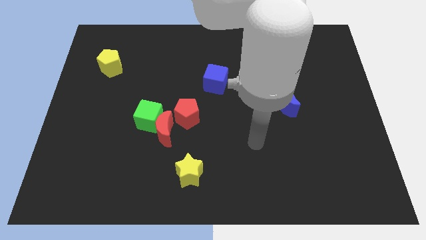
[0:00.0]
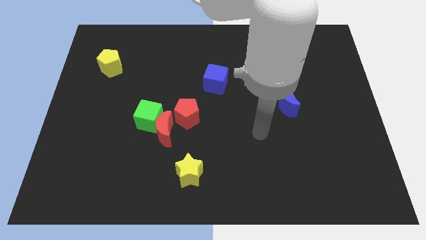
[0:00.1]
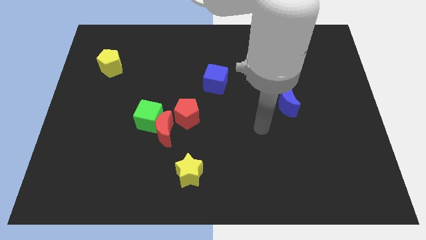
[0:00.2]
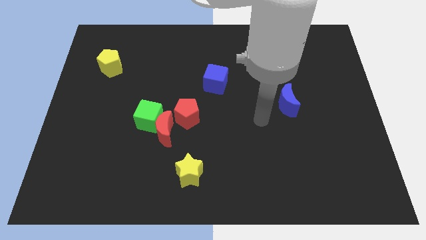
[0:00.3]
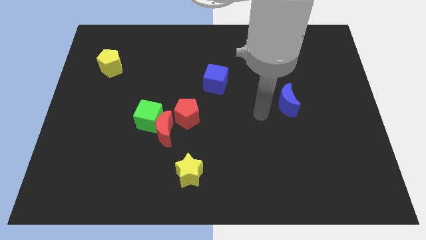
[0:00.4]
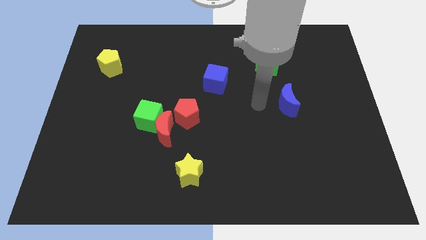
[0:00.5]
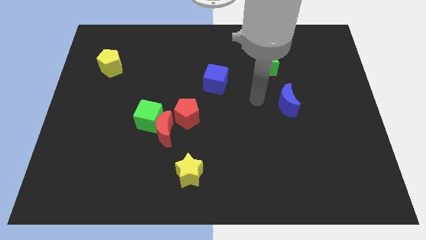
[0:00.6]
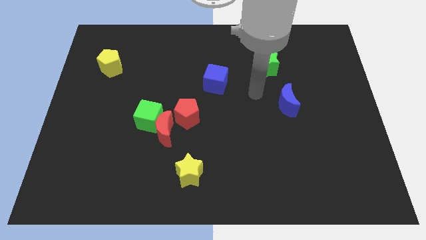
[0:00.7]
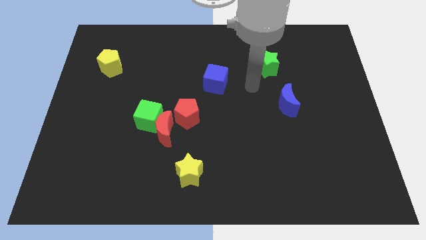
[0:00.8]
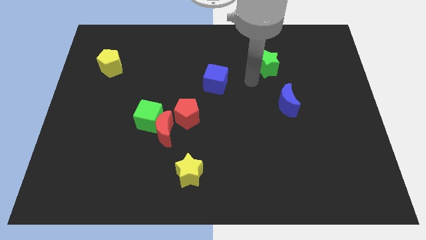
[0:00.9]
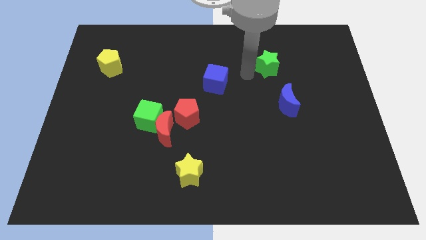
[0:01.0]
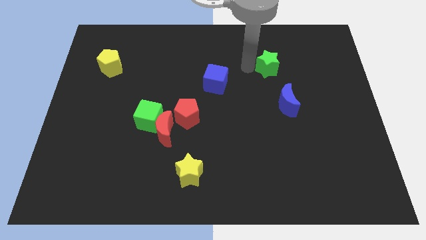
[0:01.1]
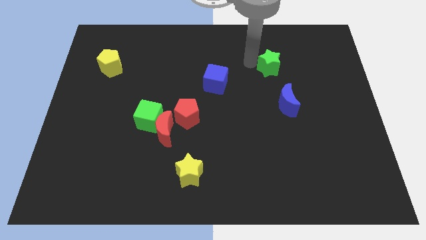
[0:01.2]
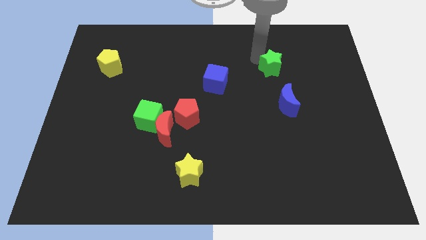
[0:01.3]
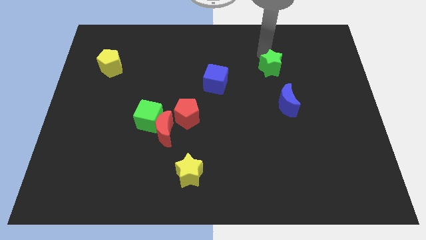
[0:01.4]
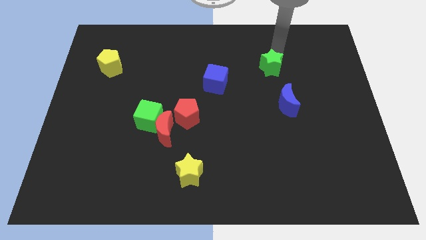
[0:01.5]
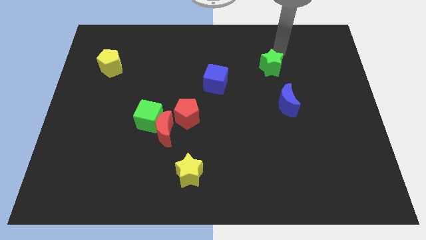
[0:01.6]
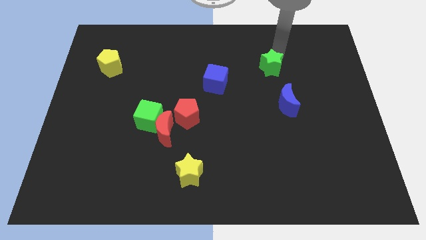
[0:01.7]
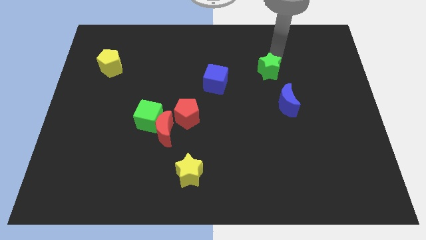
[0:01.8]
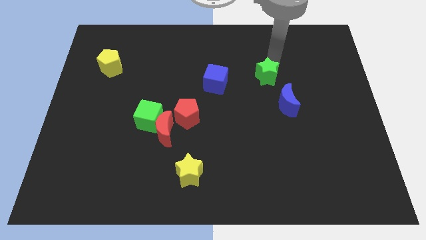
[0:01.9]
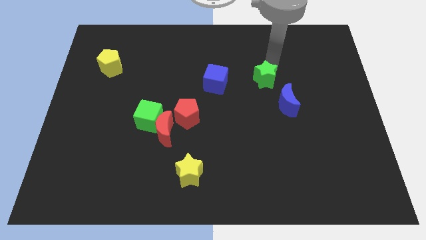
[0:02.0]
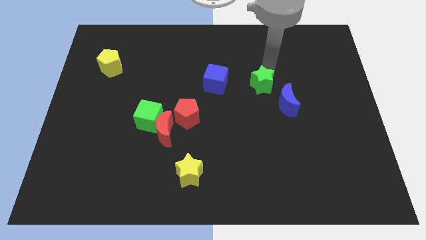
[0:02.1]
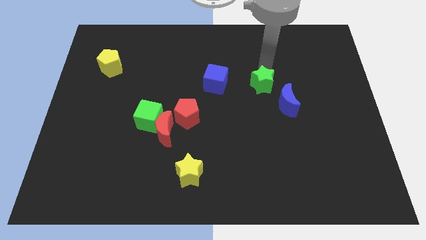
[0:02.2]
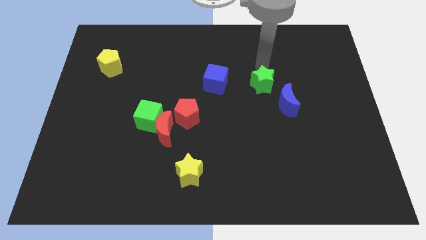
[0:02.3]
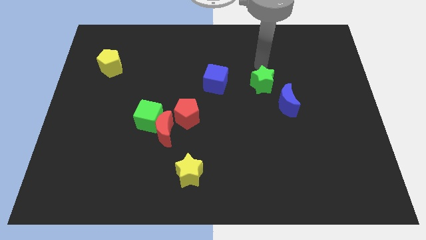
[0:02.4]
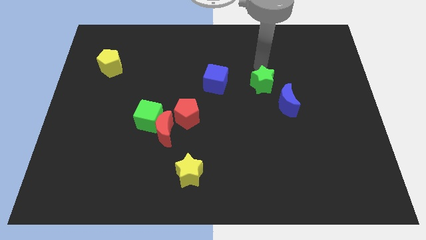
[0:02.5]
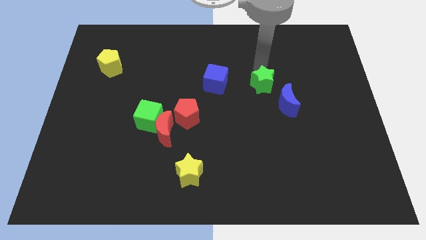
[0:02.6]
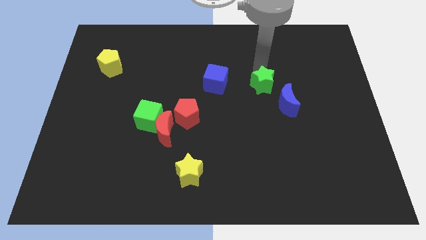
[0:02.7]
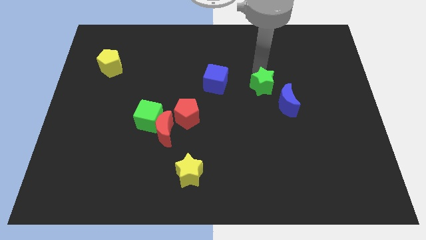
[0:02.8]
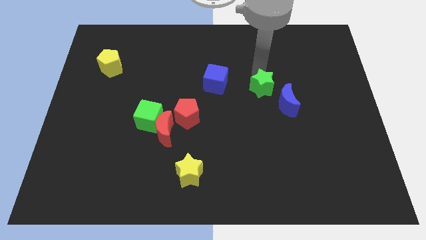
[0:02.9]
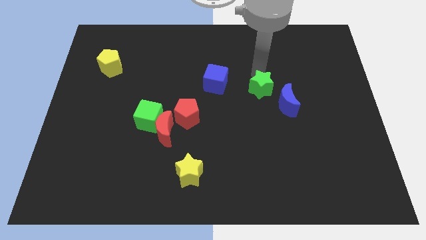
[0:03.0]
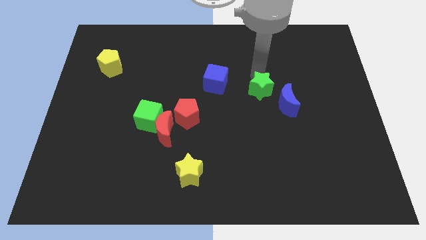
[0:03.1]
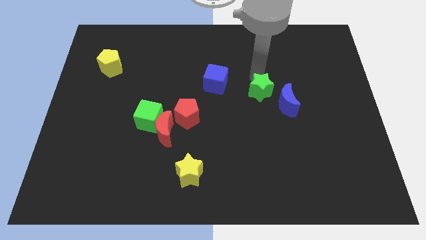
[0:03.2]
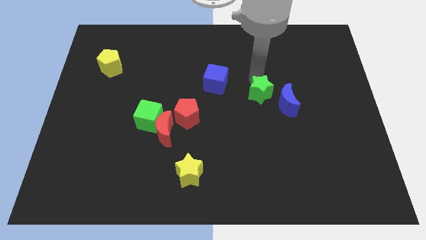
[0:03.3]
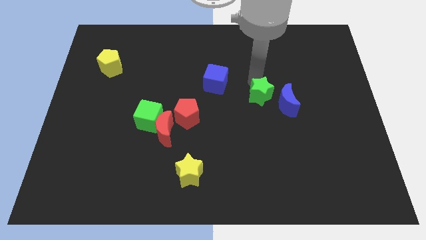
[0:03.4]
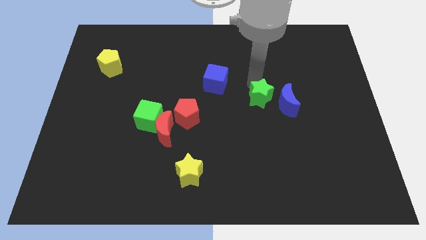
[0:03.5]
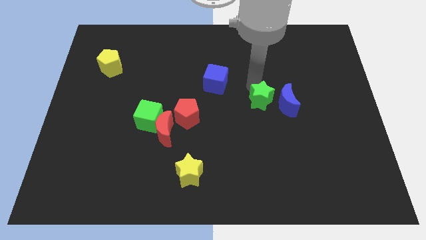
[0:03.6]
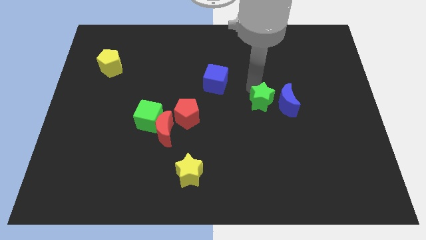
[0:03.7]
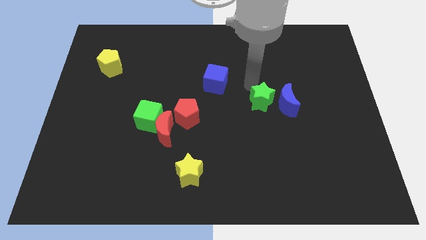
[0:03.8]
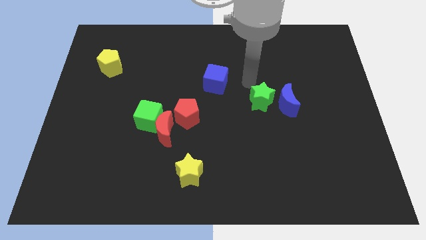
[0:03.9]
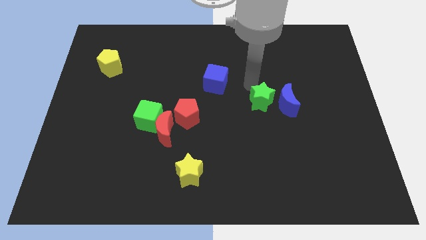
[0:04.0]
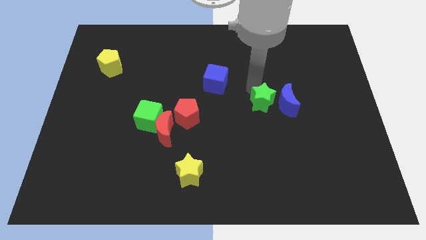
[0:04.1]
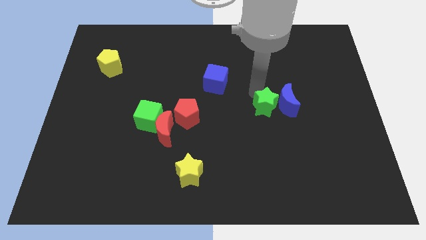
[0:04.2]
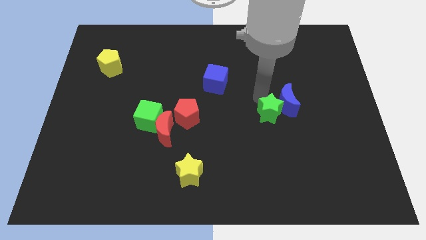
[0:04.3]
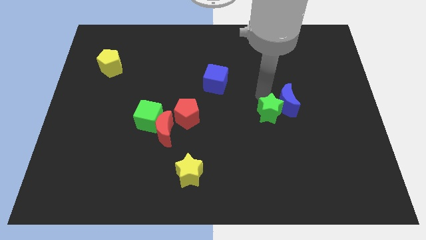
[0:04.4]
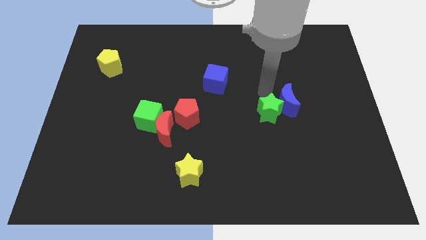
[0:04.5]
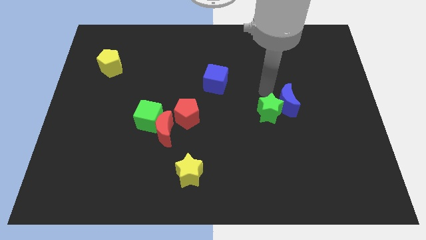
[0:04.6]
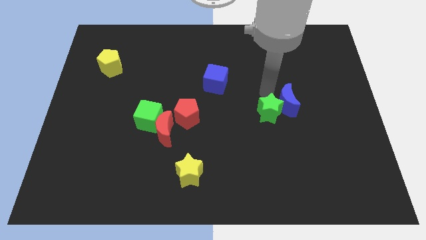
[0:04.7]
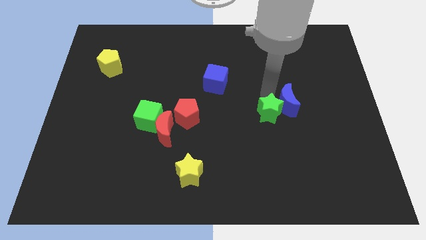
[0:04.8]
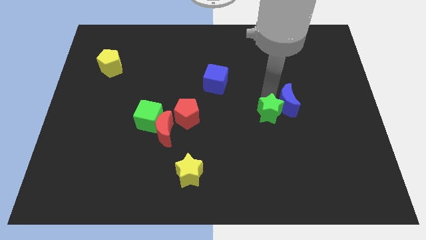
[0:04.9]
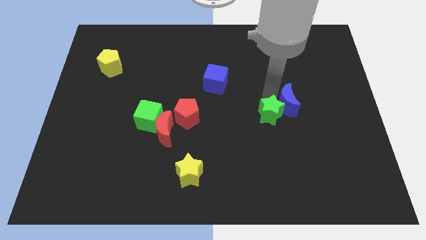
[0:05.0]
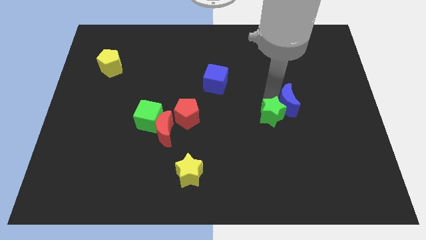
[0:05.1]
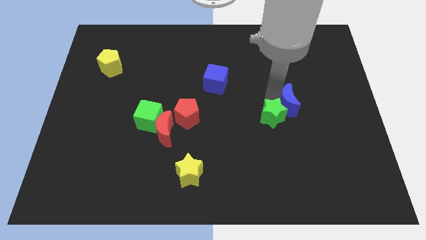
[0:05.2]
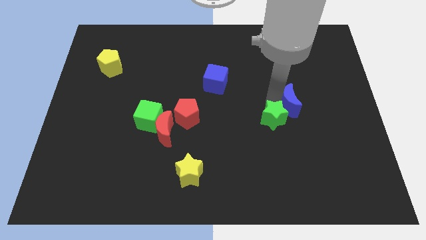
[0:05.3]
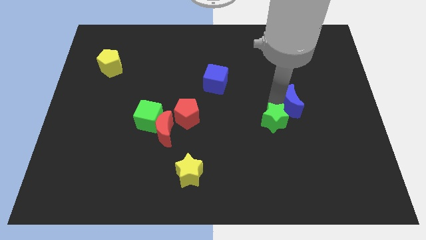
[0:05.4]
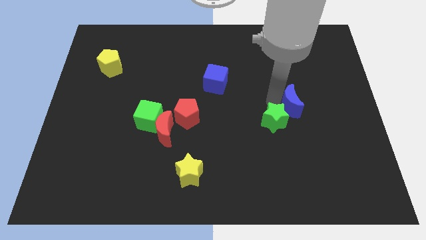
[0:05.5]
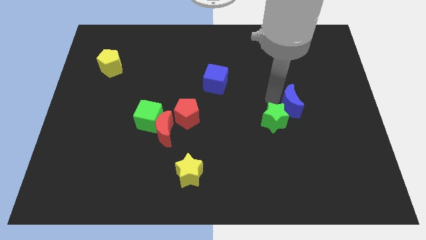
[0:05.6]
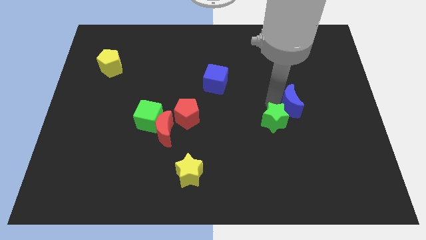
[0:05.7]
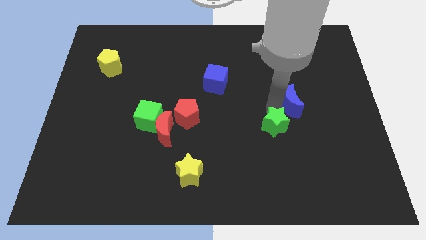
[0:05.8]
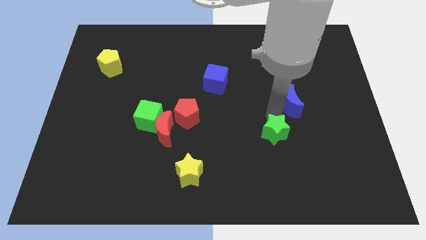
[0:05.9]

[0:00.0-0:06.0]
push the green star downwards

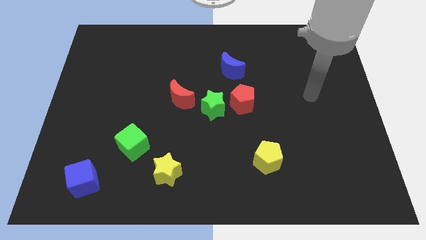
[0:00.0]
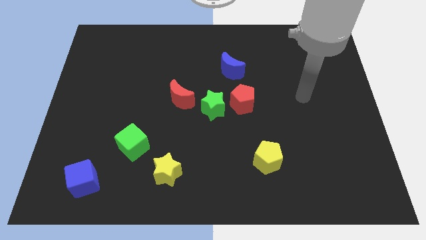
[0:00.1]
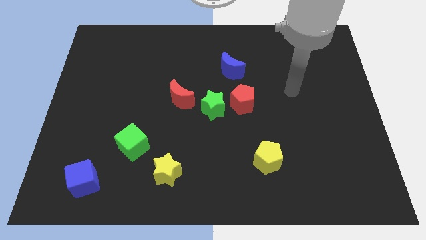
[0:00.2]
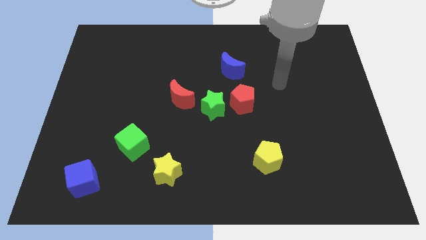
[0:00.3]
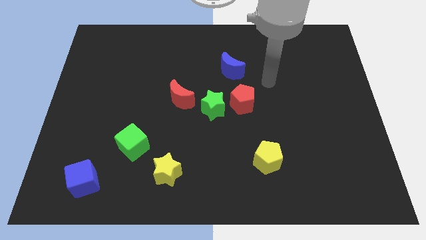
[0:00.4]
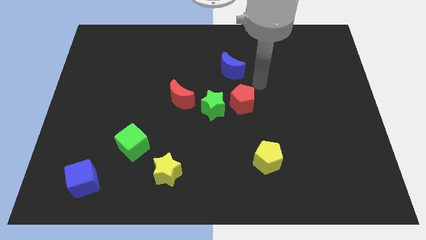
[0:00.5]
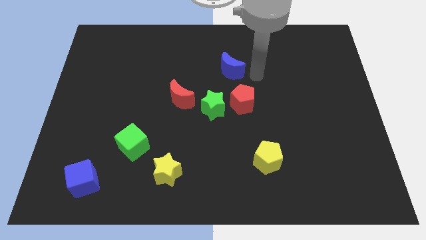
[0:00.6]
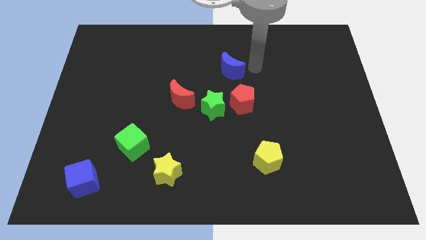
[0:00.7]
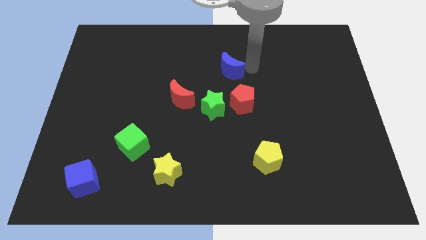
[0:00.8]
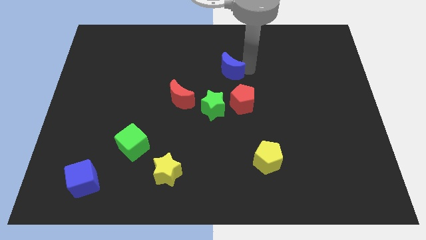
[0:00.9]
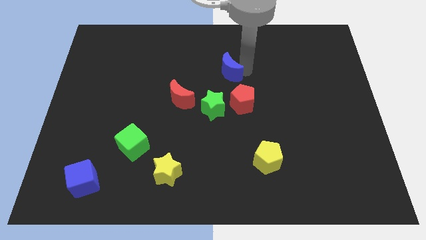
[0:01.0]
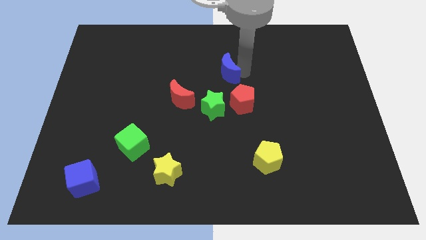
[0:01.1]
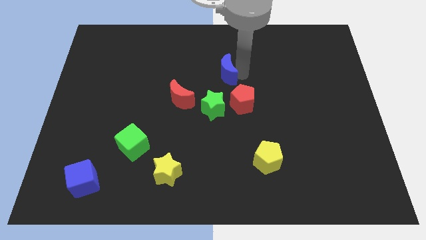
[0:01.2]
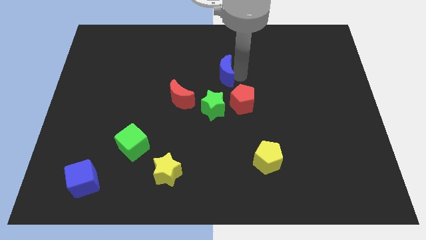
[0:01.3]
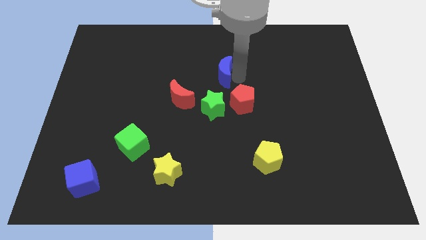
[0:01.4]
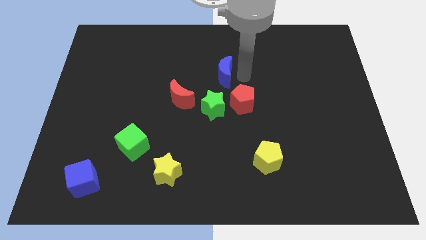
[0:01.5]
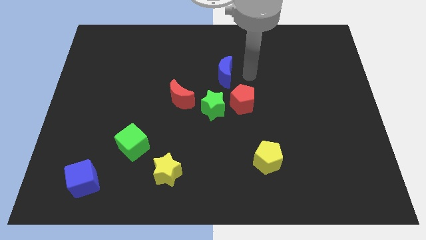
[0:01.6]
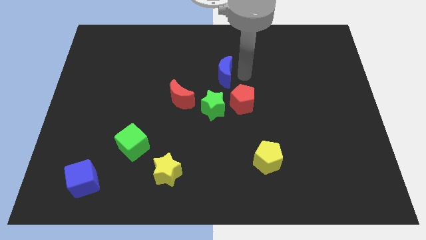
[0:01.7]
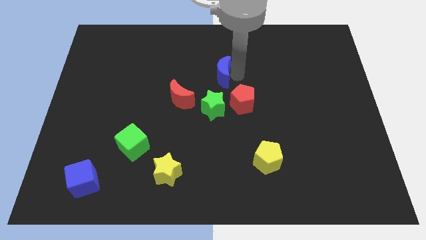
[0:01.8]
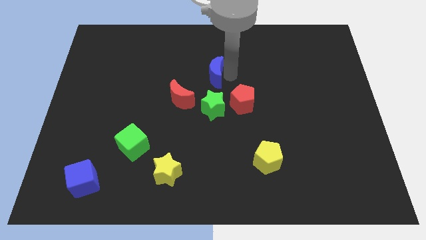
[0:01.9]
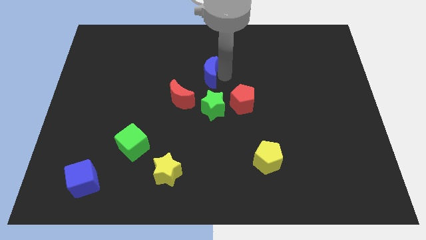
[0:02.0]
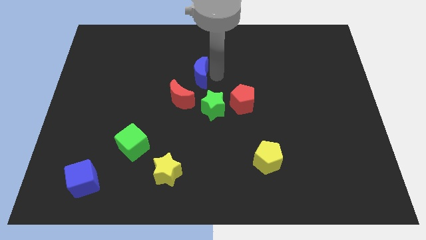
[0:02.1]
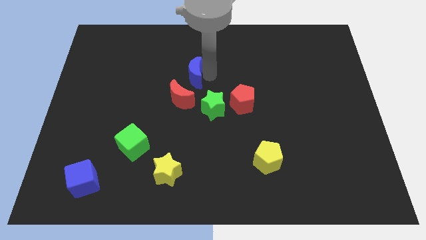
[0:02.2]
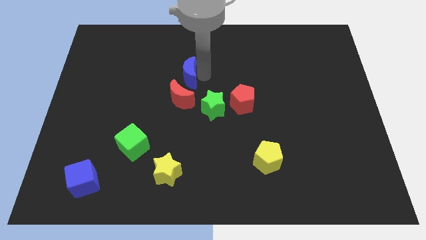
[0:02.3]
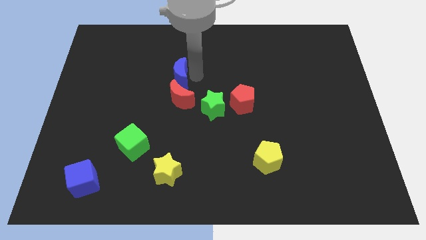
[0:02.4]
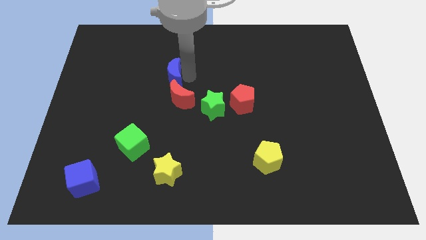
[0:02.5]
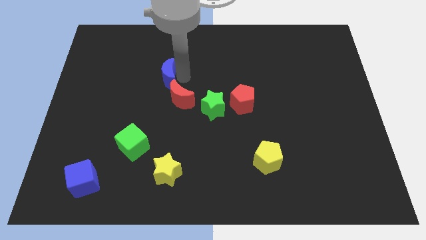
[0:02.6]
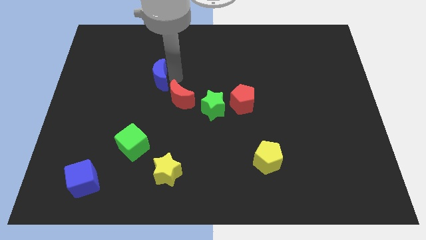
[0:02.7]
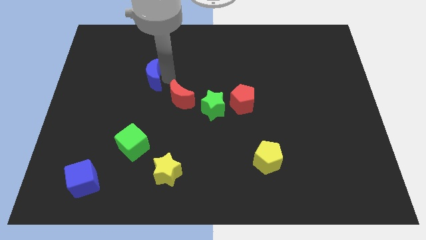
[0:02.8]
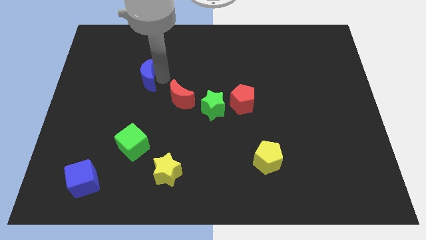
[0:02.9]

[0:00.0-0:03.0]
slide the blue moon to the left
